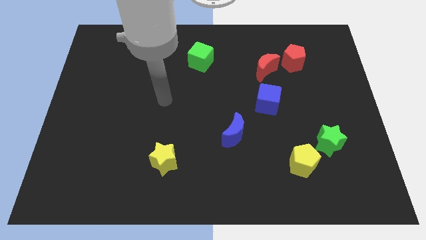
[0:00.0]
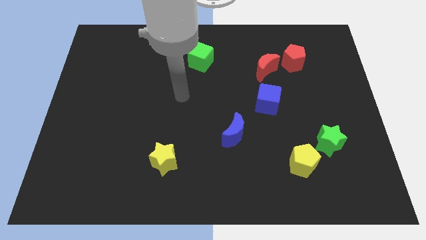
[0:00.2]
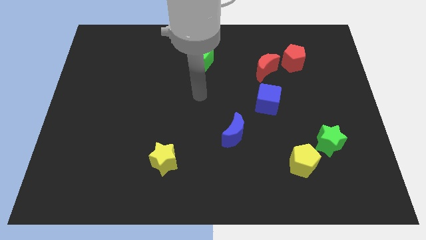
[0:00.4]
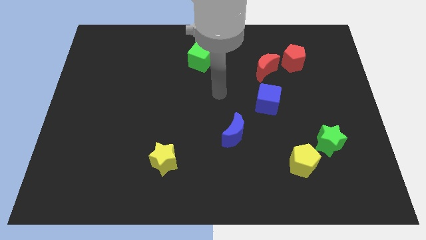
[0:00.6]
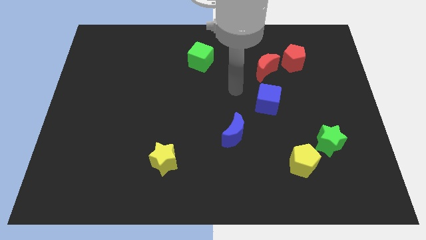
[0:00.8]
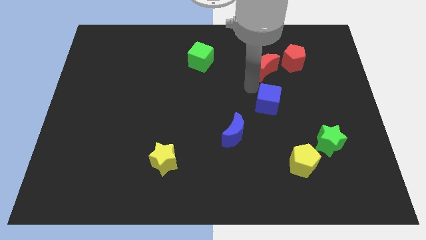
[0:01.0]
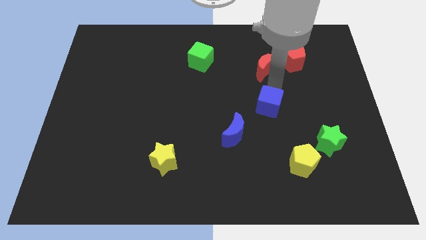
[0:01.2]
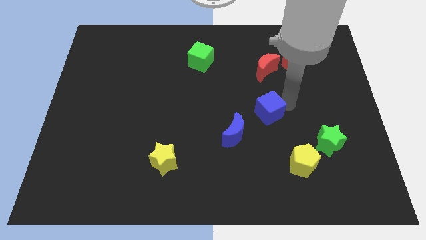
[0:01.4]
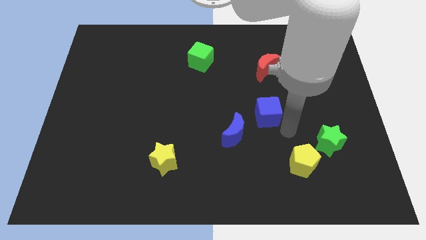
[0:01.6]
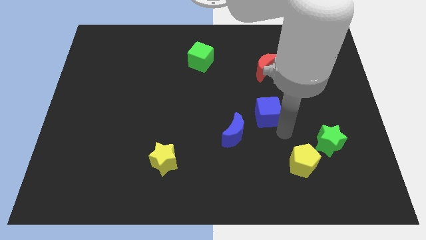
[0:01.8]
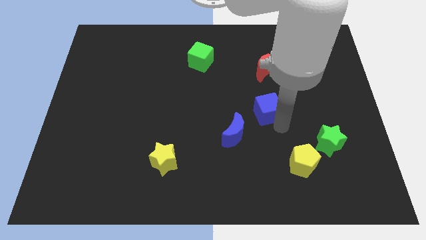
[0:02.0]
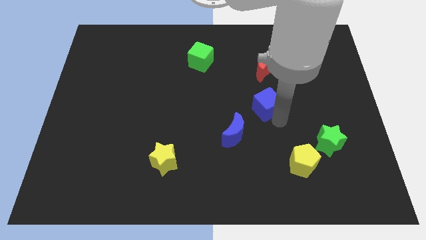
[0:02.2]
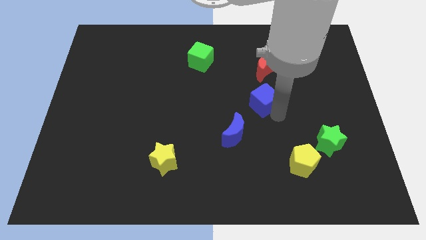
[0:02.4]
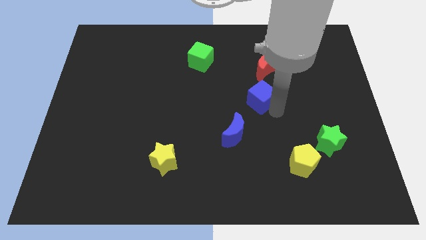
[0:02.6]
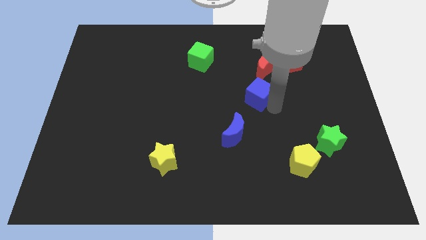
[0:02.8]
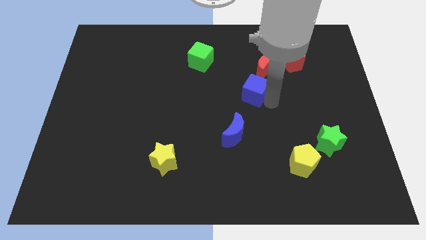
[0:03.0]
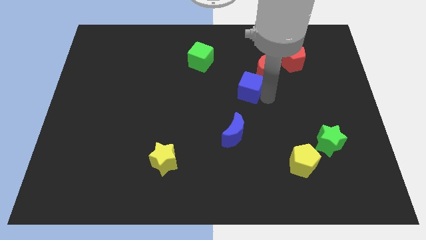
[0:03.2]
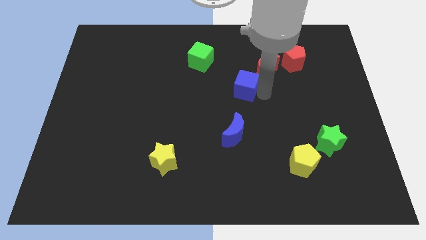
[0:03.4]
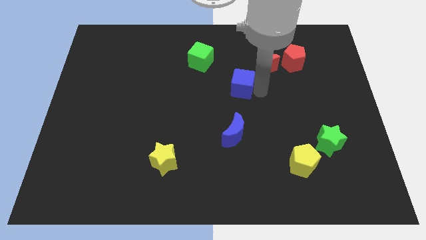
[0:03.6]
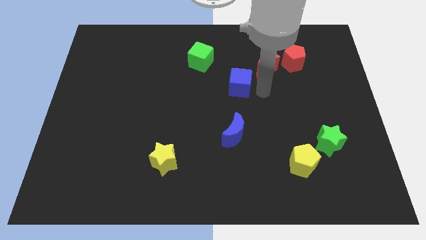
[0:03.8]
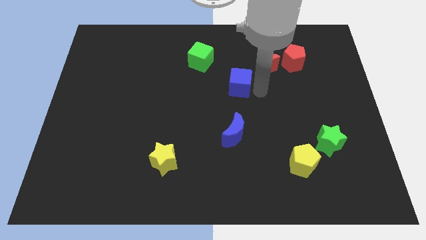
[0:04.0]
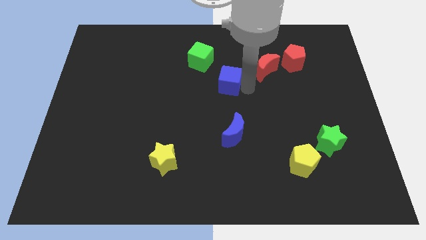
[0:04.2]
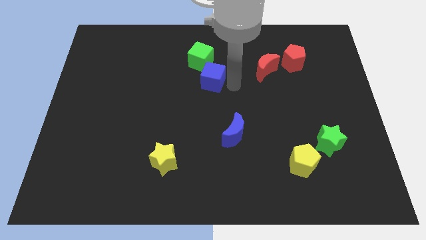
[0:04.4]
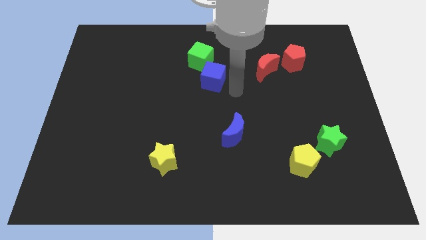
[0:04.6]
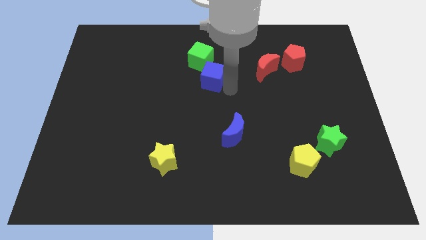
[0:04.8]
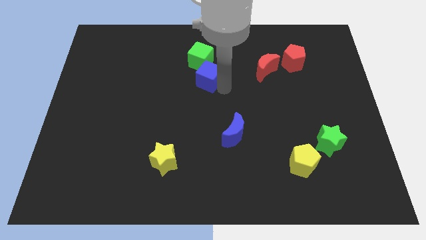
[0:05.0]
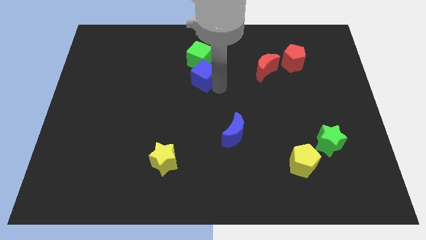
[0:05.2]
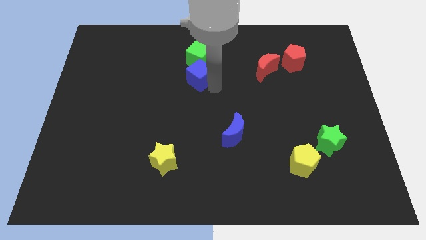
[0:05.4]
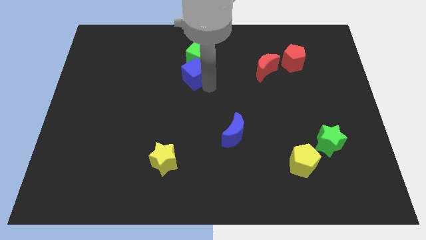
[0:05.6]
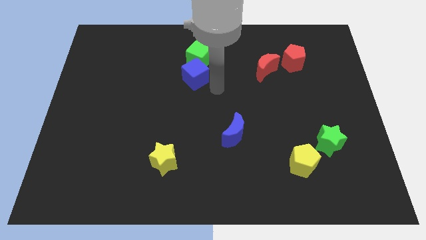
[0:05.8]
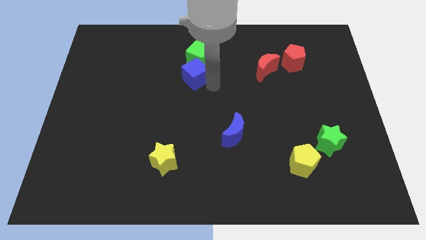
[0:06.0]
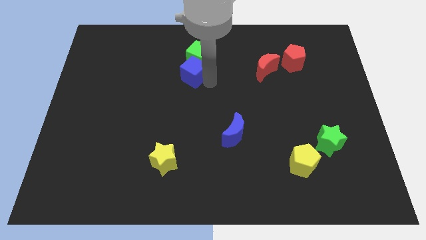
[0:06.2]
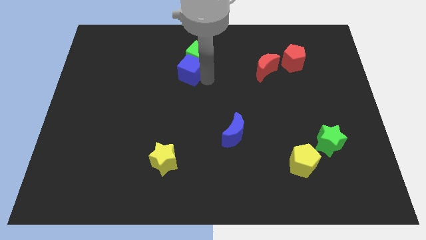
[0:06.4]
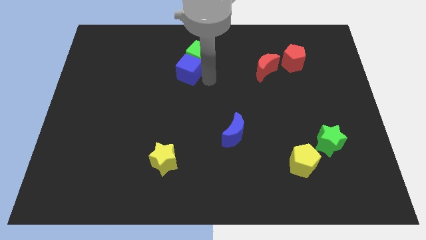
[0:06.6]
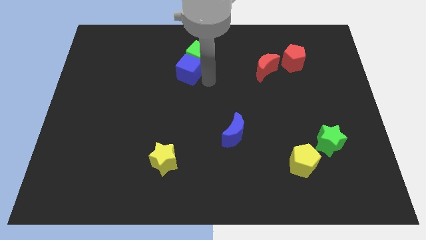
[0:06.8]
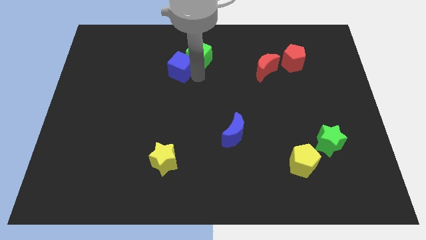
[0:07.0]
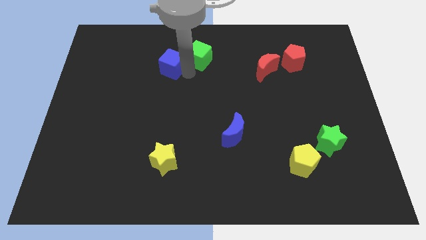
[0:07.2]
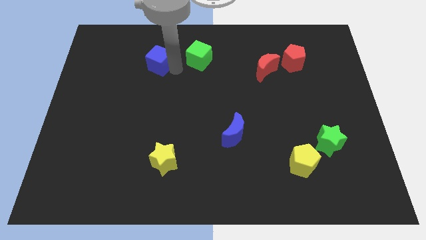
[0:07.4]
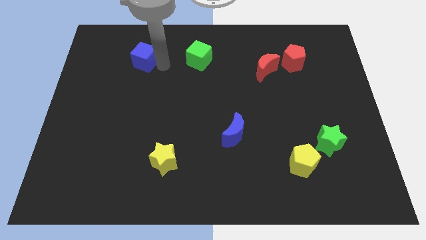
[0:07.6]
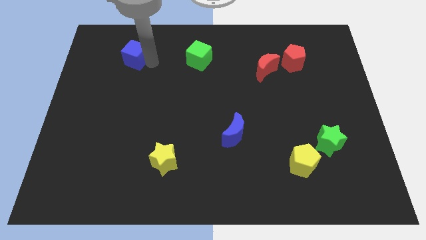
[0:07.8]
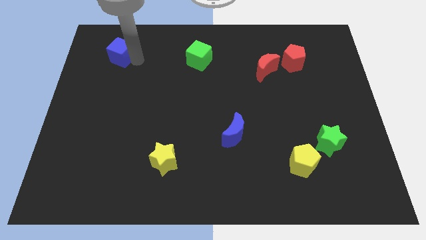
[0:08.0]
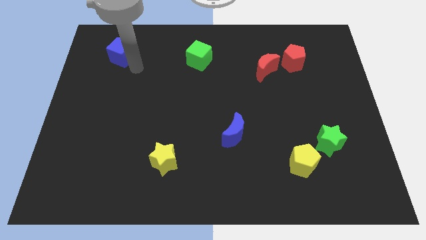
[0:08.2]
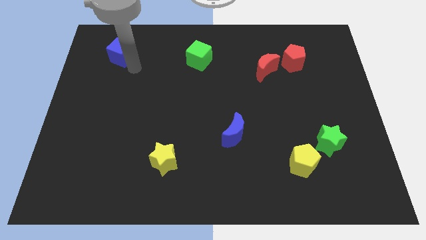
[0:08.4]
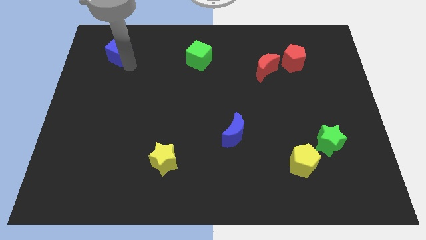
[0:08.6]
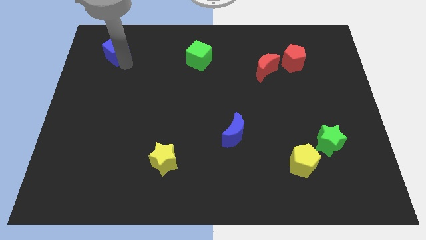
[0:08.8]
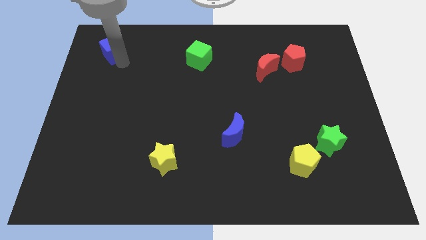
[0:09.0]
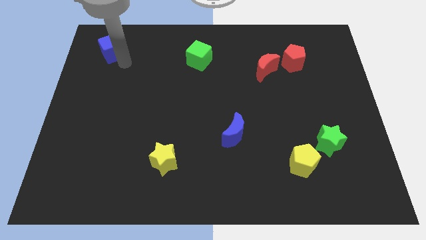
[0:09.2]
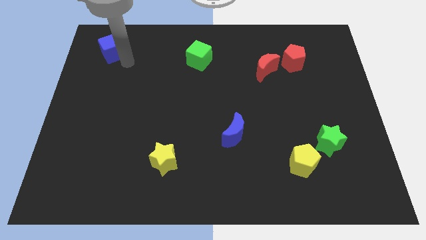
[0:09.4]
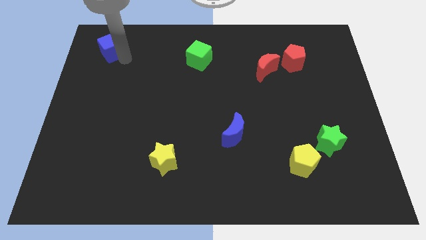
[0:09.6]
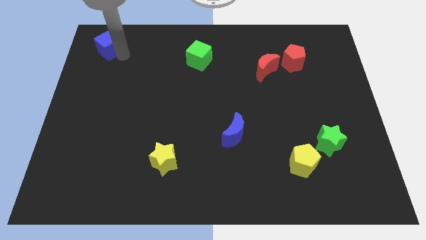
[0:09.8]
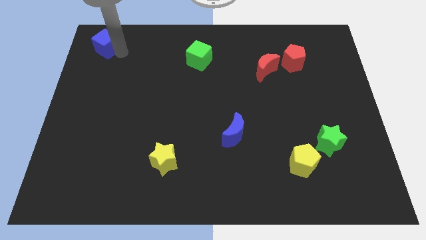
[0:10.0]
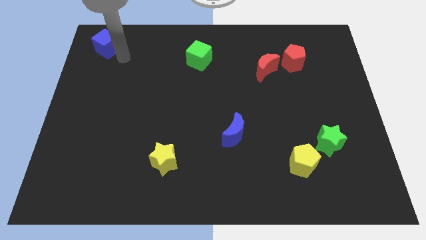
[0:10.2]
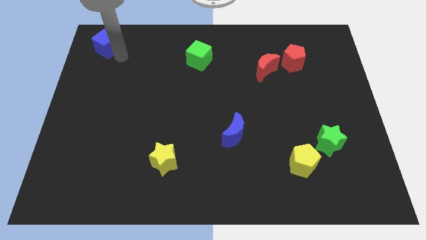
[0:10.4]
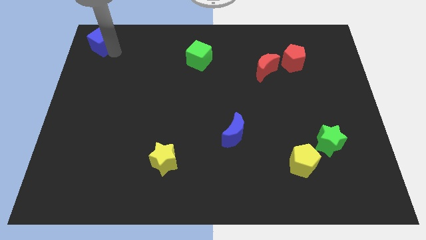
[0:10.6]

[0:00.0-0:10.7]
slide the blue cube to the upper left corner
